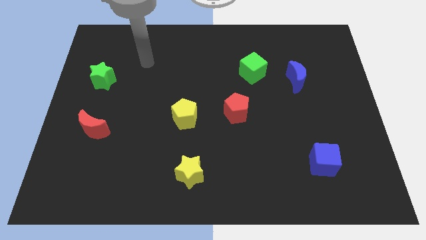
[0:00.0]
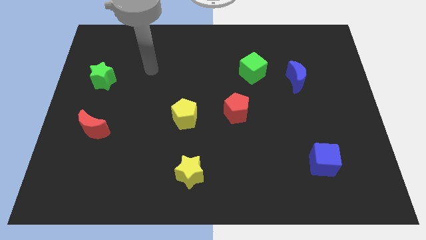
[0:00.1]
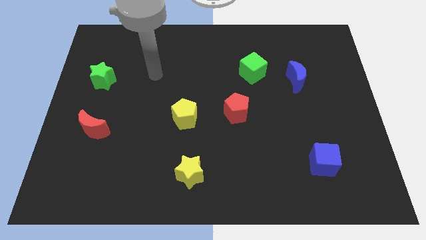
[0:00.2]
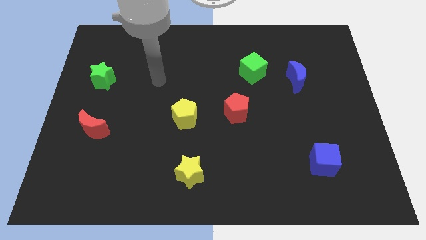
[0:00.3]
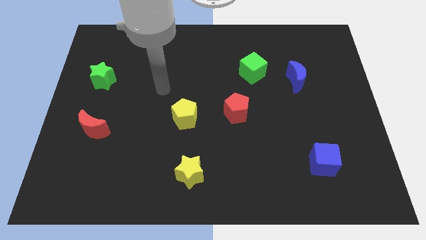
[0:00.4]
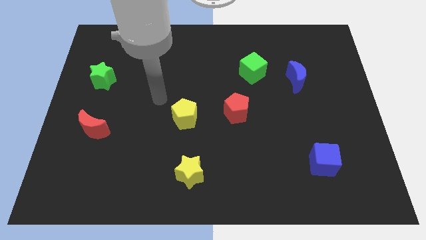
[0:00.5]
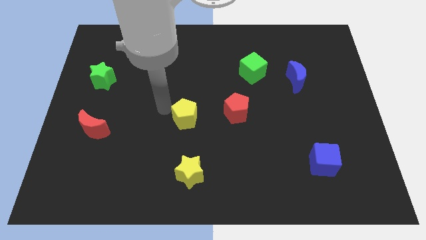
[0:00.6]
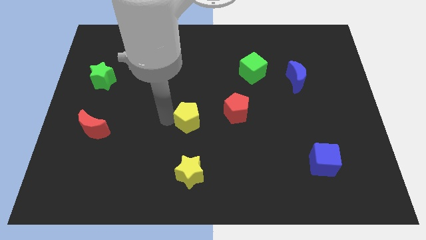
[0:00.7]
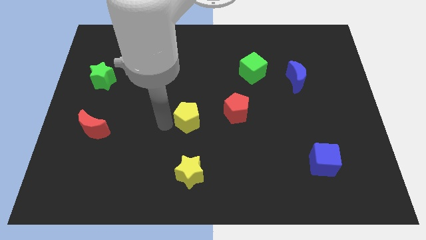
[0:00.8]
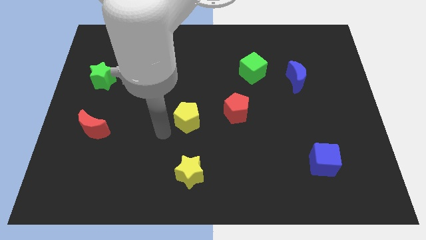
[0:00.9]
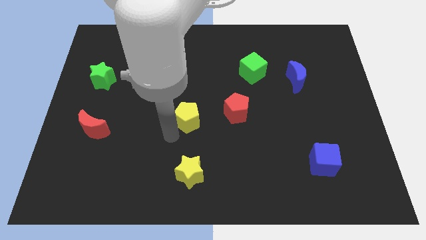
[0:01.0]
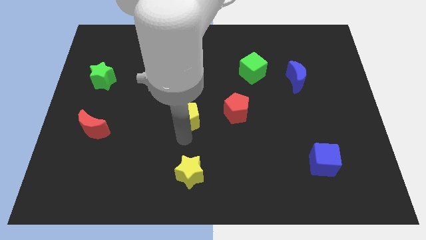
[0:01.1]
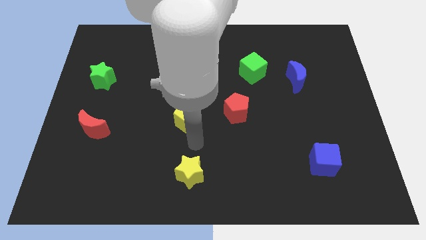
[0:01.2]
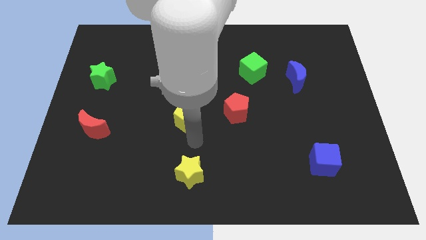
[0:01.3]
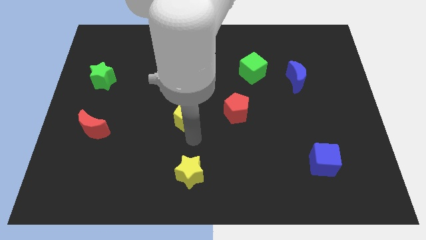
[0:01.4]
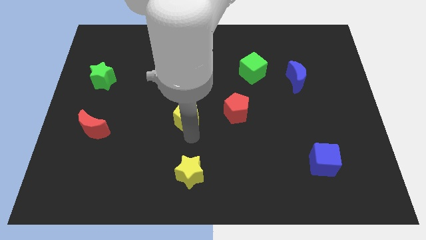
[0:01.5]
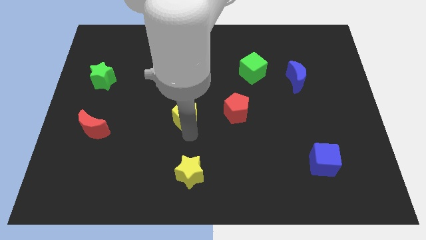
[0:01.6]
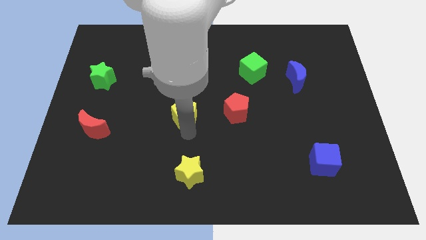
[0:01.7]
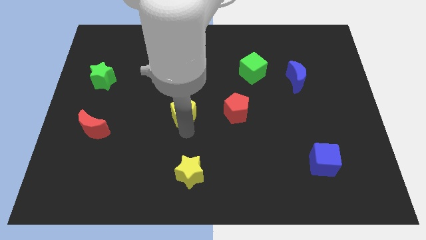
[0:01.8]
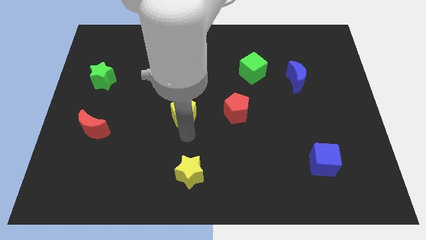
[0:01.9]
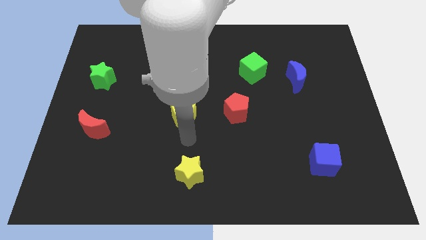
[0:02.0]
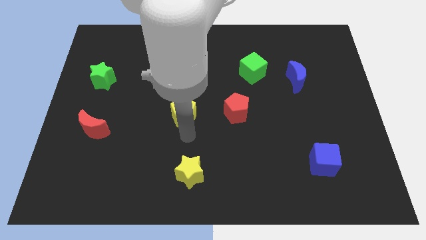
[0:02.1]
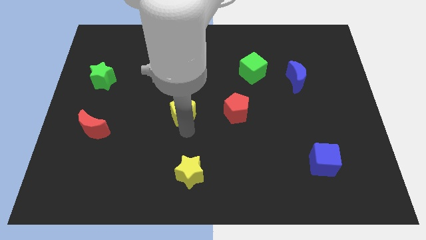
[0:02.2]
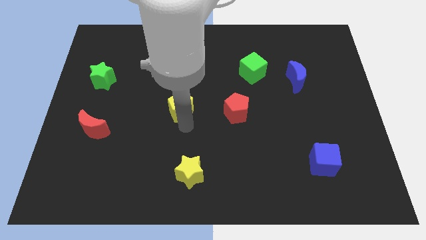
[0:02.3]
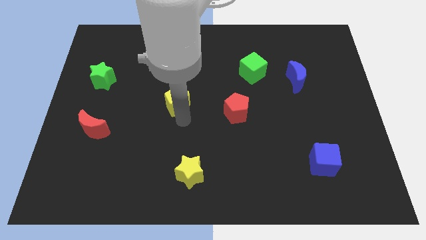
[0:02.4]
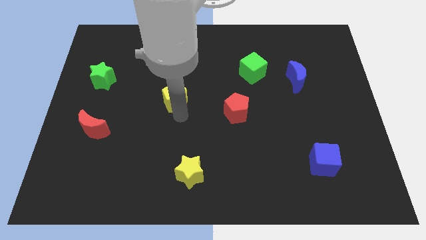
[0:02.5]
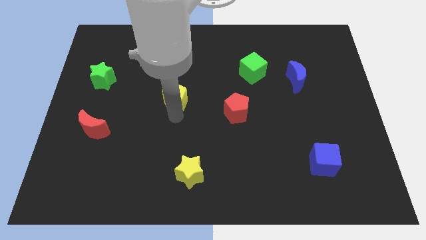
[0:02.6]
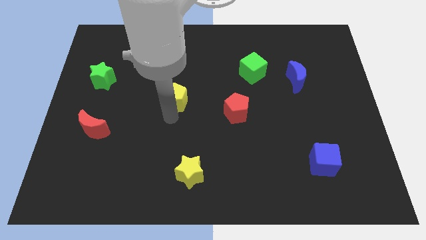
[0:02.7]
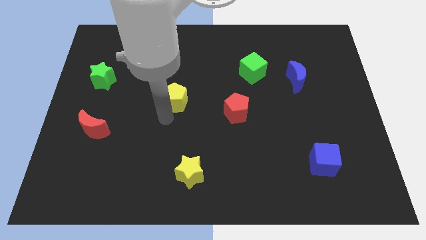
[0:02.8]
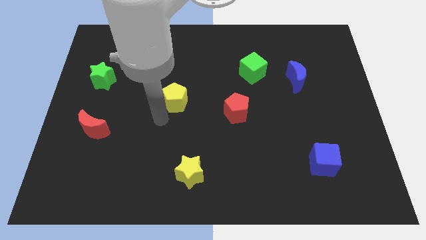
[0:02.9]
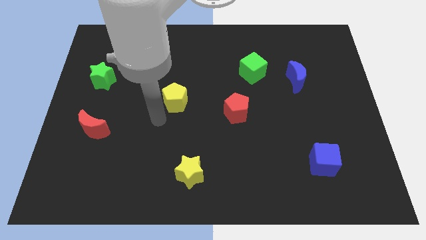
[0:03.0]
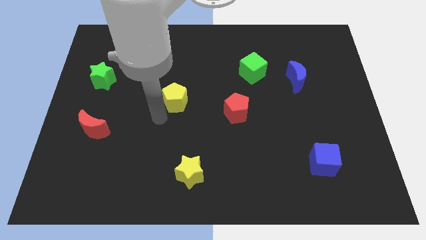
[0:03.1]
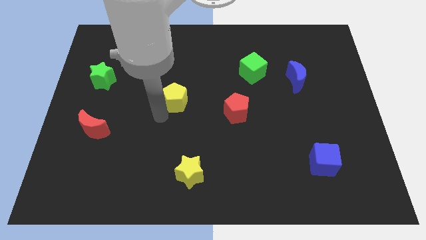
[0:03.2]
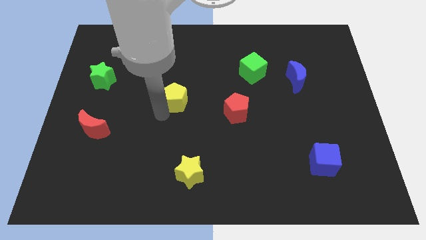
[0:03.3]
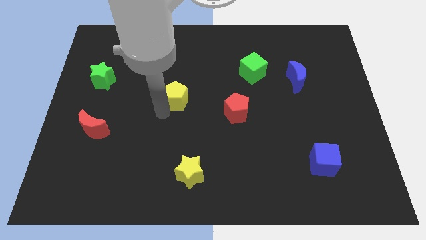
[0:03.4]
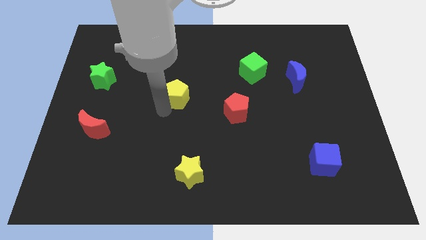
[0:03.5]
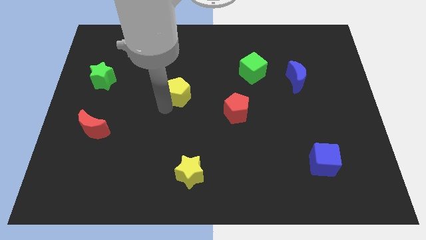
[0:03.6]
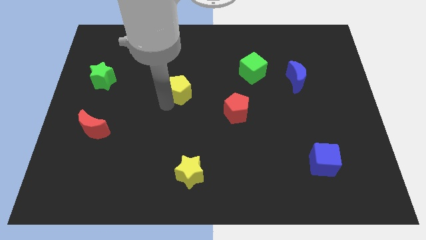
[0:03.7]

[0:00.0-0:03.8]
slightly push the yellow pentagon upwards

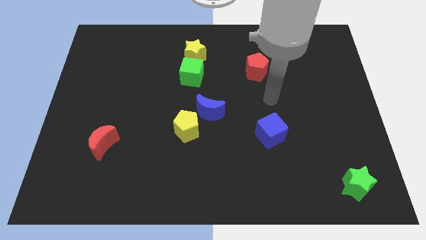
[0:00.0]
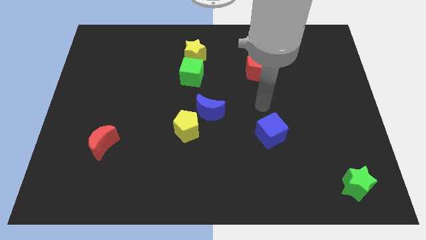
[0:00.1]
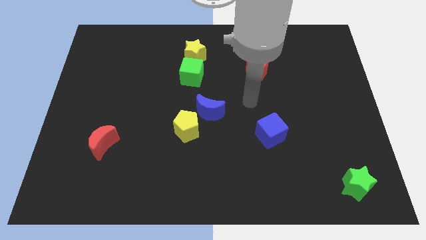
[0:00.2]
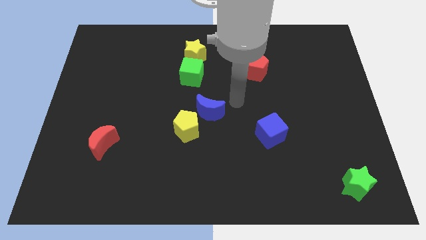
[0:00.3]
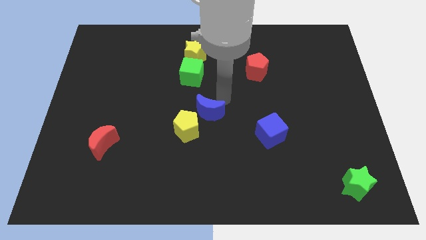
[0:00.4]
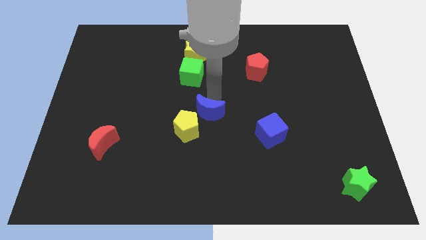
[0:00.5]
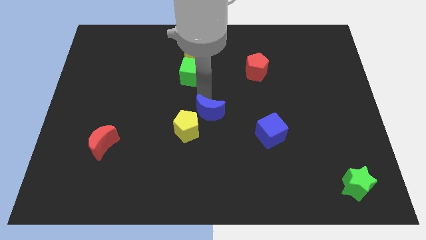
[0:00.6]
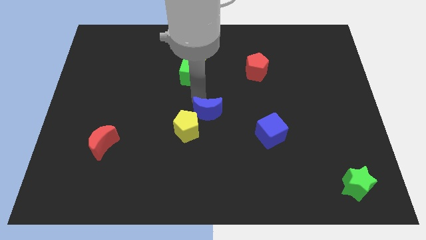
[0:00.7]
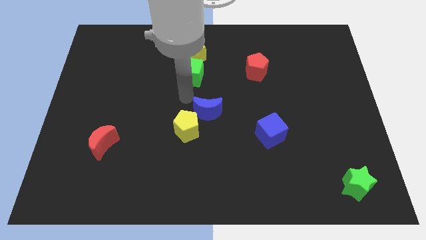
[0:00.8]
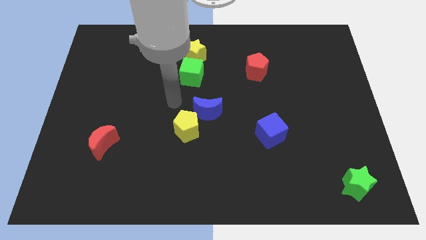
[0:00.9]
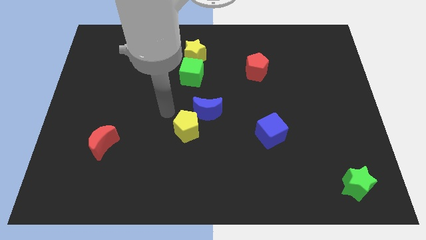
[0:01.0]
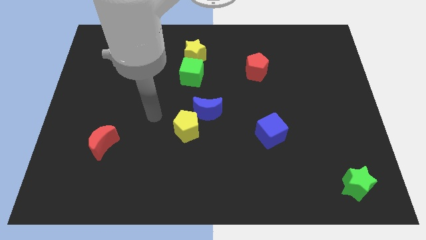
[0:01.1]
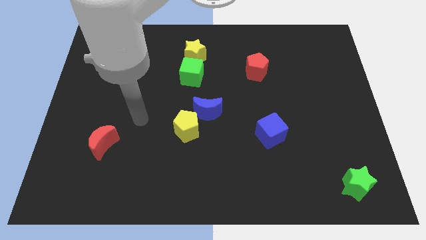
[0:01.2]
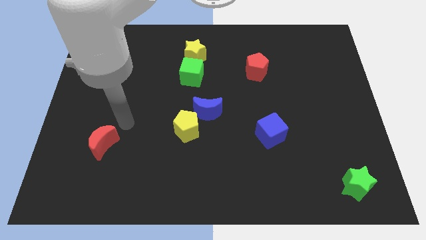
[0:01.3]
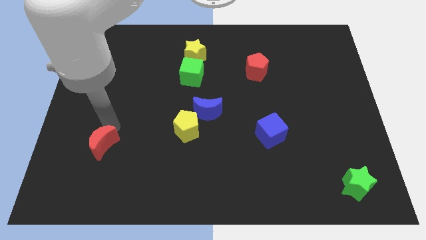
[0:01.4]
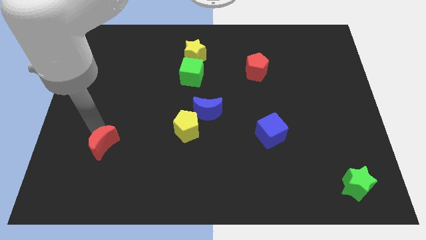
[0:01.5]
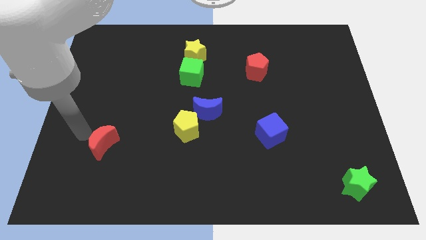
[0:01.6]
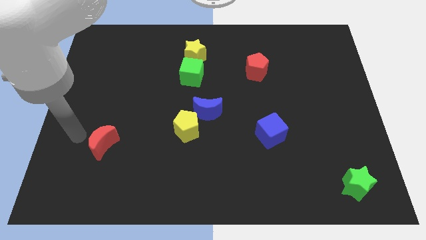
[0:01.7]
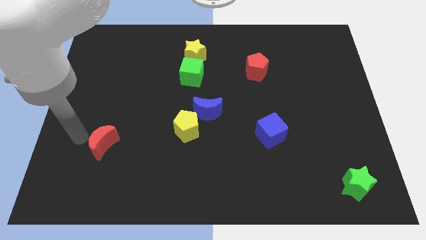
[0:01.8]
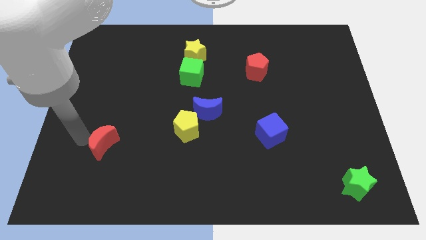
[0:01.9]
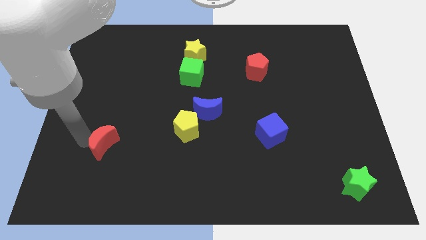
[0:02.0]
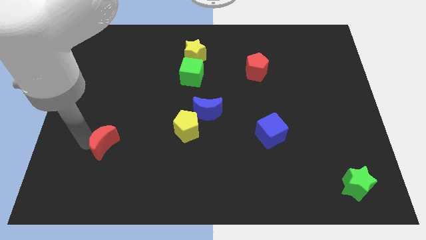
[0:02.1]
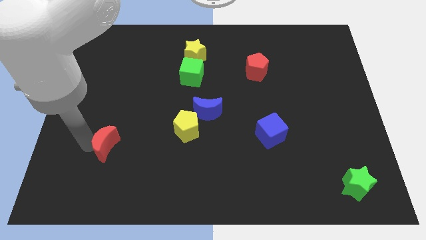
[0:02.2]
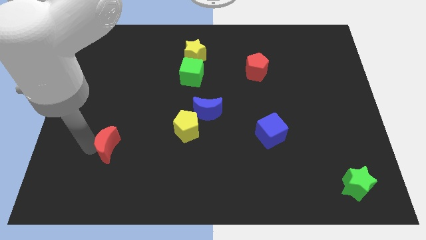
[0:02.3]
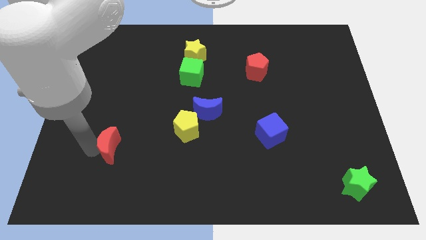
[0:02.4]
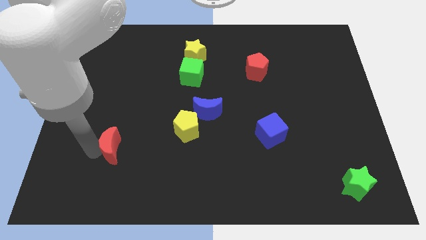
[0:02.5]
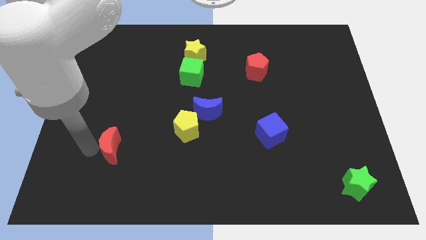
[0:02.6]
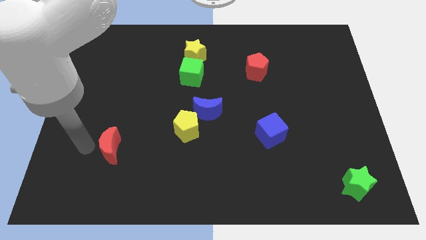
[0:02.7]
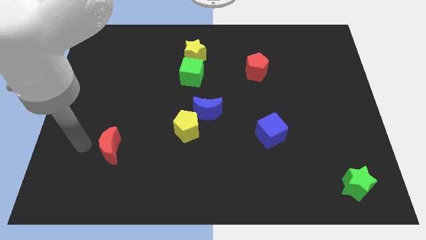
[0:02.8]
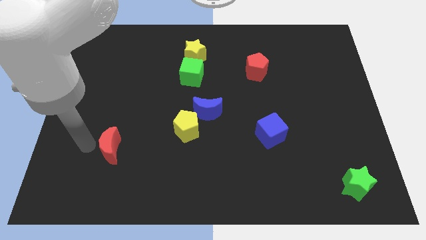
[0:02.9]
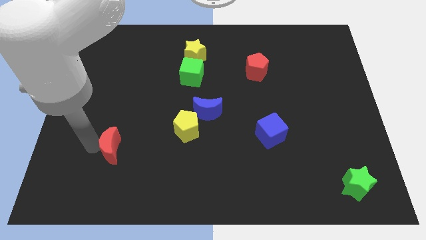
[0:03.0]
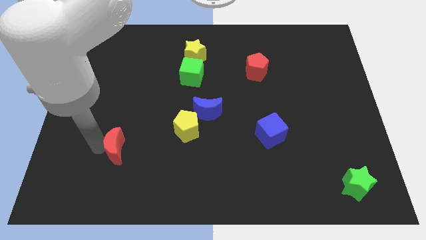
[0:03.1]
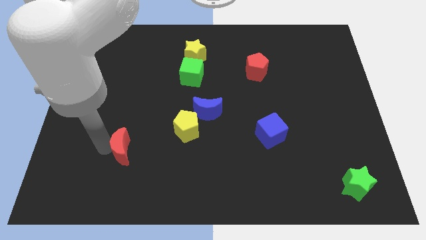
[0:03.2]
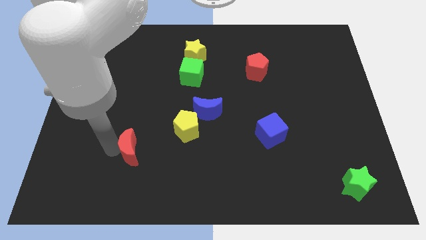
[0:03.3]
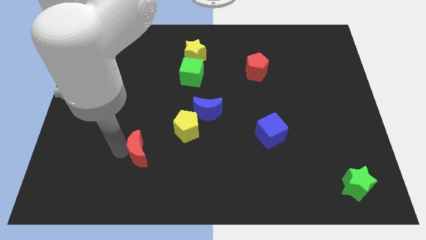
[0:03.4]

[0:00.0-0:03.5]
slightly push the red moon right

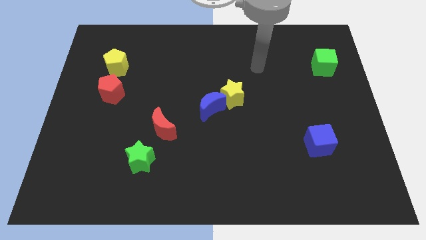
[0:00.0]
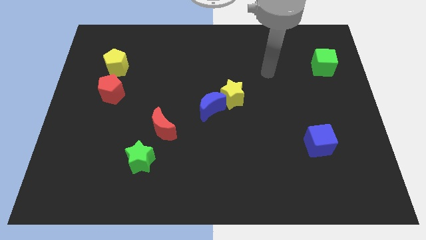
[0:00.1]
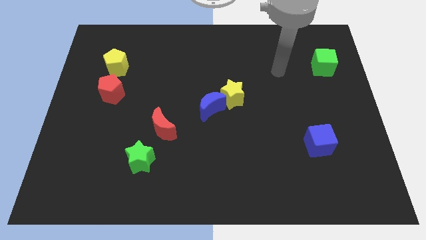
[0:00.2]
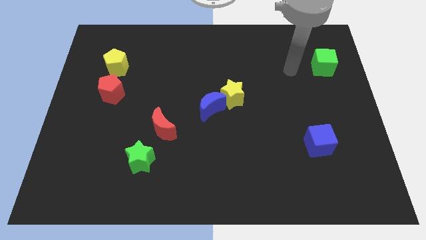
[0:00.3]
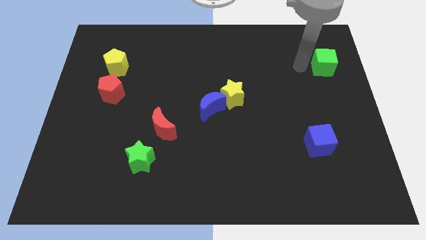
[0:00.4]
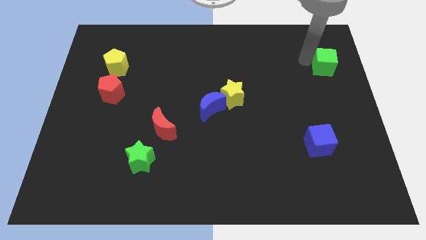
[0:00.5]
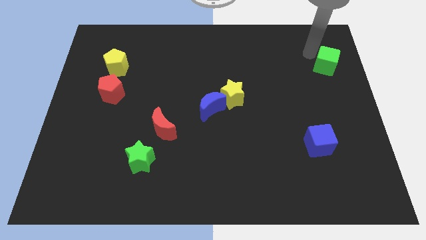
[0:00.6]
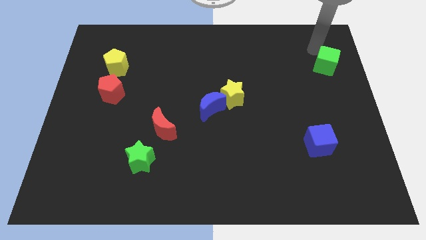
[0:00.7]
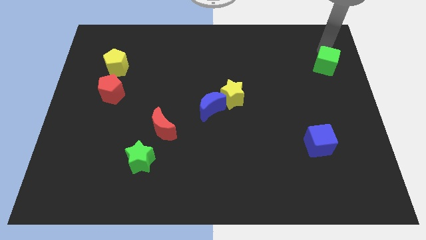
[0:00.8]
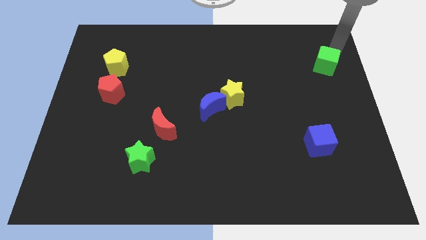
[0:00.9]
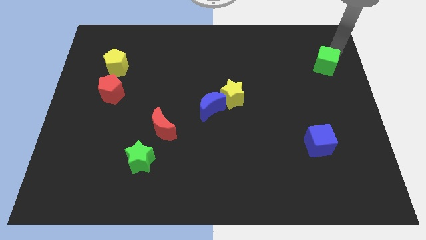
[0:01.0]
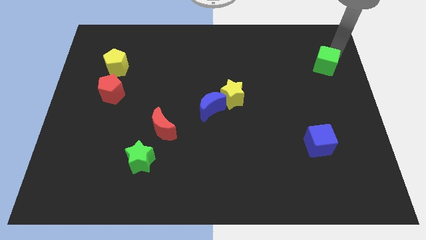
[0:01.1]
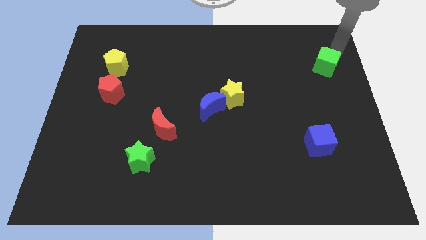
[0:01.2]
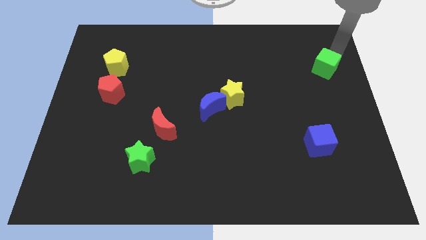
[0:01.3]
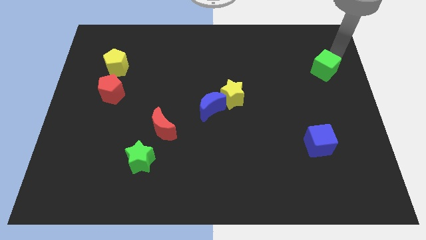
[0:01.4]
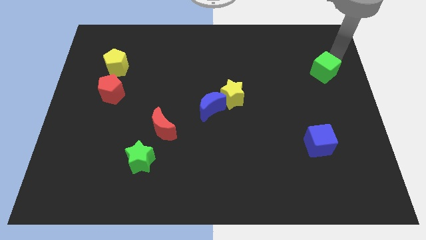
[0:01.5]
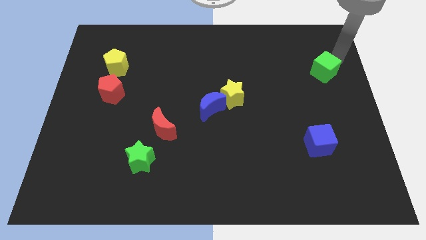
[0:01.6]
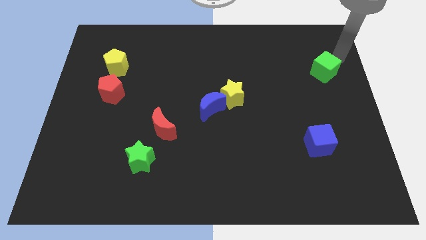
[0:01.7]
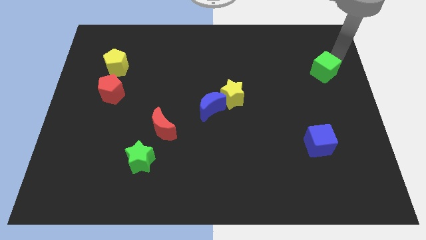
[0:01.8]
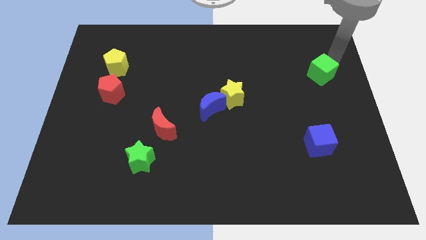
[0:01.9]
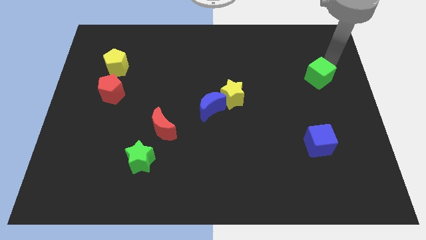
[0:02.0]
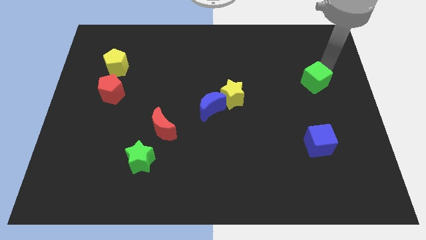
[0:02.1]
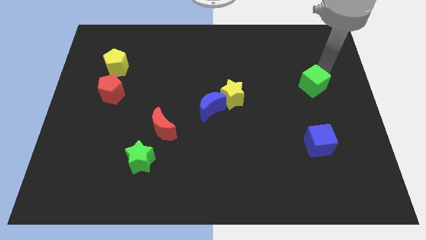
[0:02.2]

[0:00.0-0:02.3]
move the green cube slightly diagonally down and to the left
